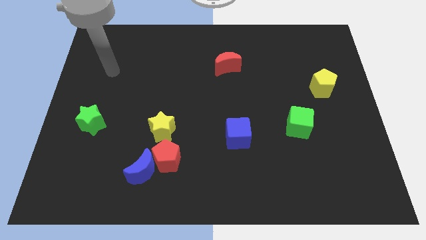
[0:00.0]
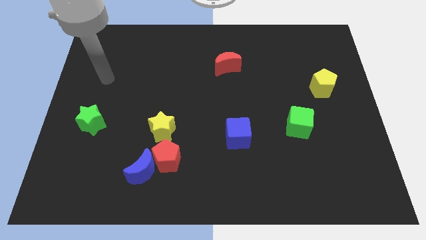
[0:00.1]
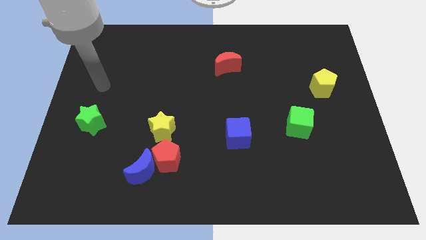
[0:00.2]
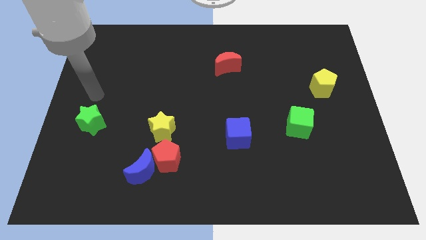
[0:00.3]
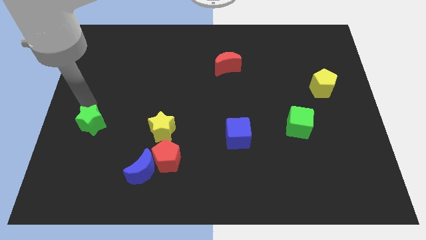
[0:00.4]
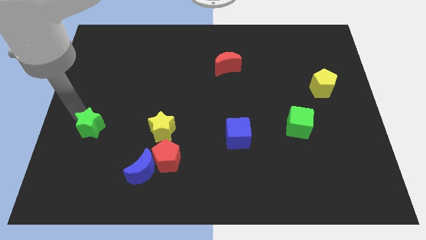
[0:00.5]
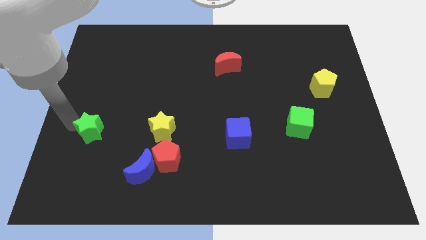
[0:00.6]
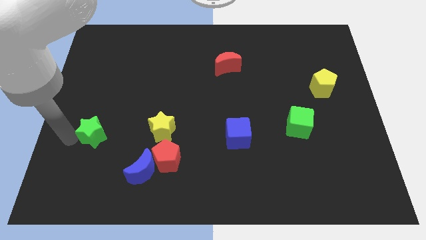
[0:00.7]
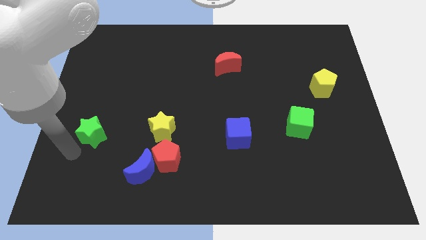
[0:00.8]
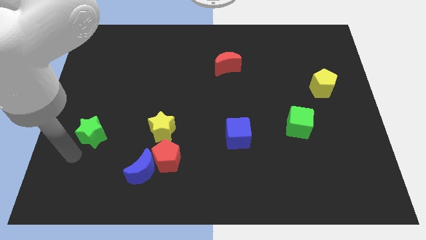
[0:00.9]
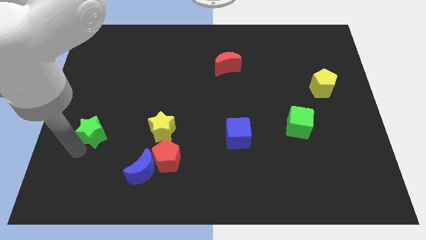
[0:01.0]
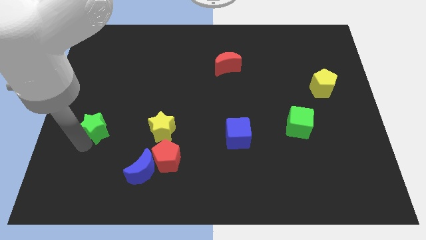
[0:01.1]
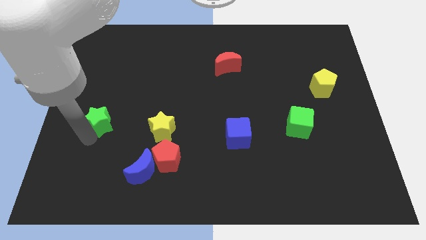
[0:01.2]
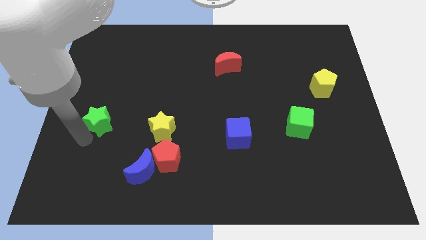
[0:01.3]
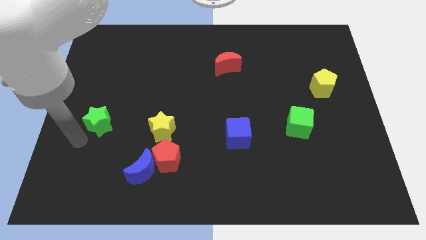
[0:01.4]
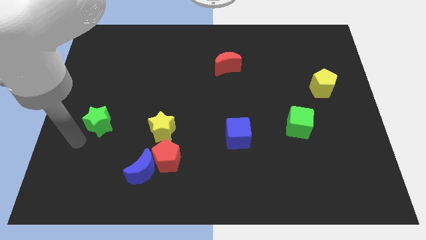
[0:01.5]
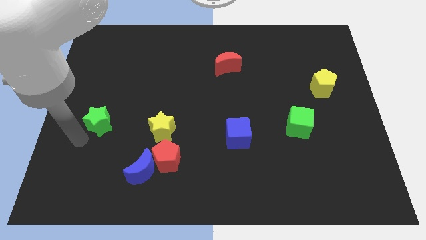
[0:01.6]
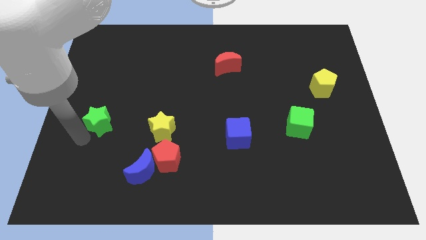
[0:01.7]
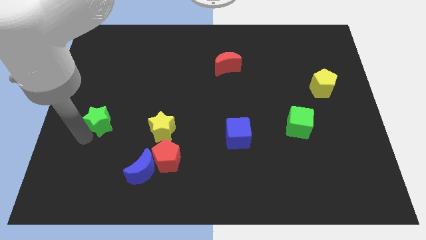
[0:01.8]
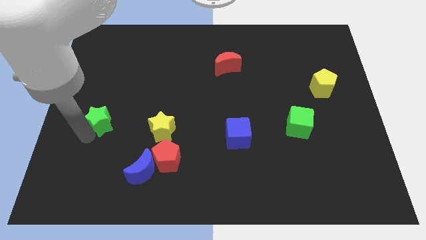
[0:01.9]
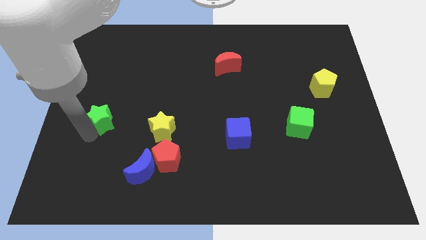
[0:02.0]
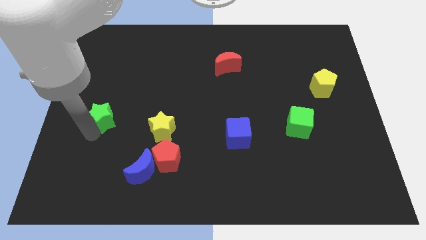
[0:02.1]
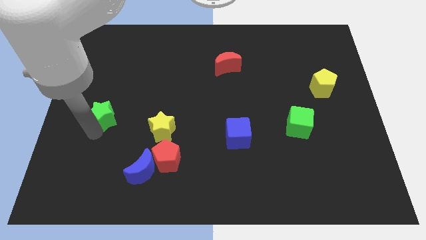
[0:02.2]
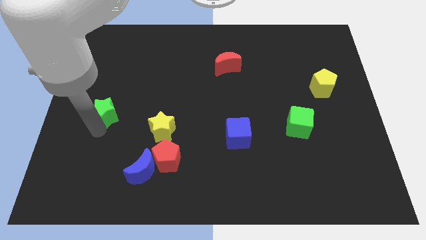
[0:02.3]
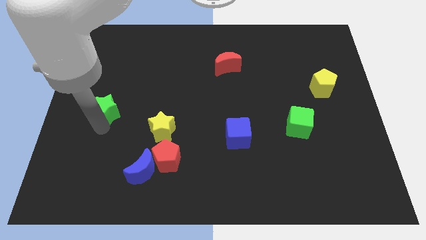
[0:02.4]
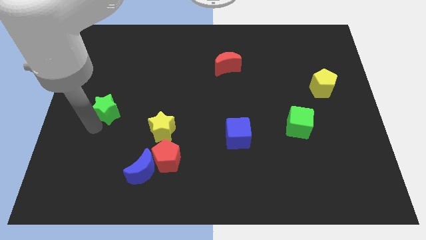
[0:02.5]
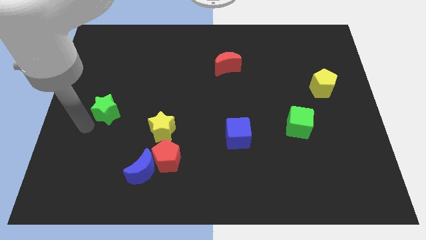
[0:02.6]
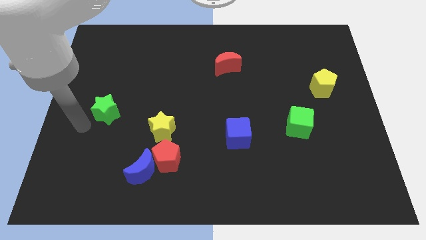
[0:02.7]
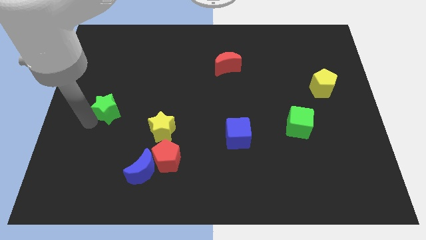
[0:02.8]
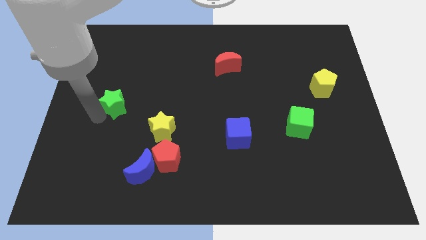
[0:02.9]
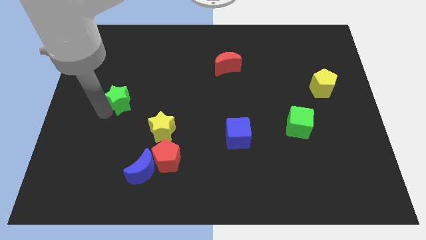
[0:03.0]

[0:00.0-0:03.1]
push the green star somewhat up and right diagonally

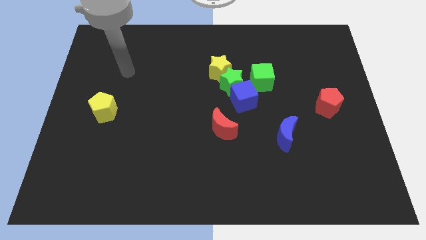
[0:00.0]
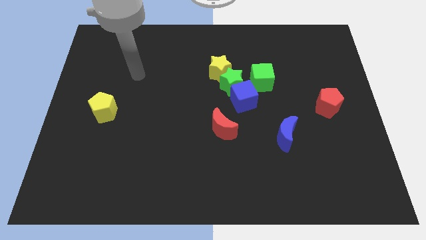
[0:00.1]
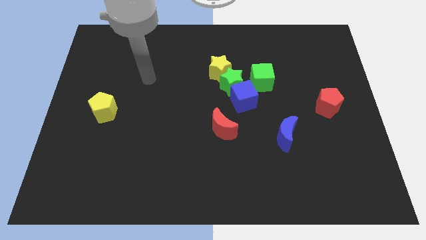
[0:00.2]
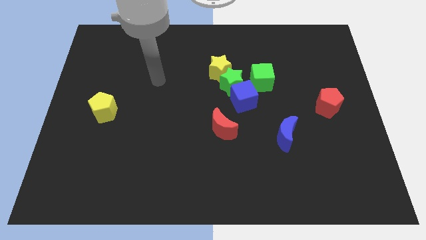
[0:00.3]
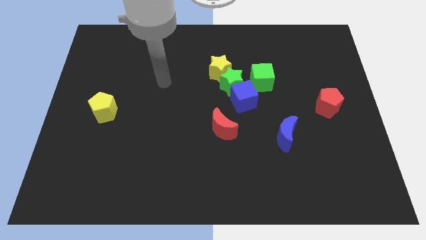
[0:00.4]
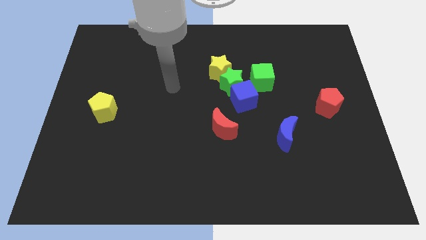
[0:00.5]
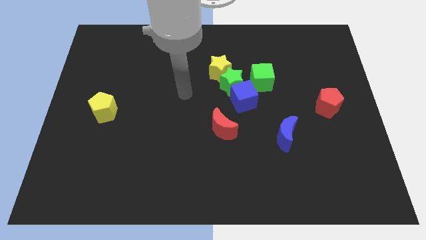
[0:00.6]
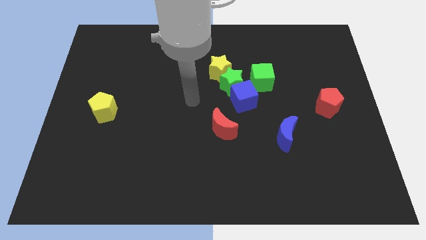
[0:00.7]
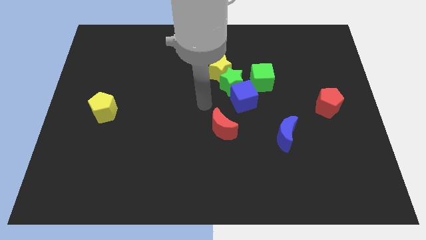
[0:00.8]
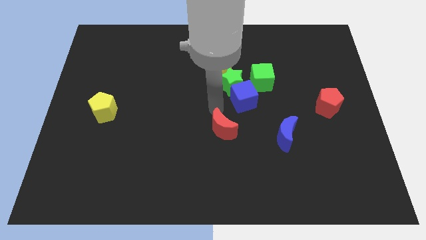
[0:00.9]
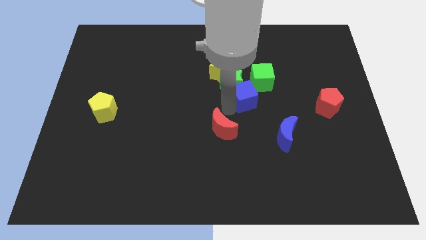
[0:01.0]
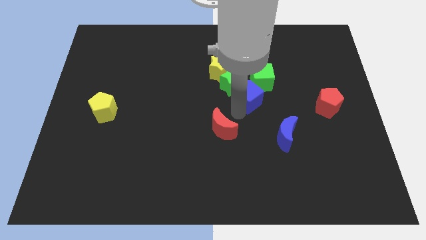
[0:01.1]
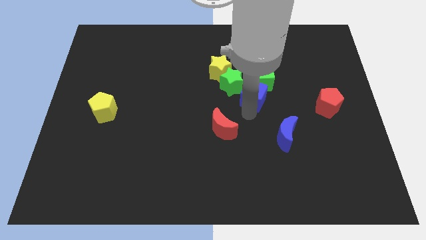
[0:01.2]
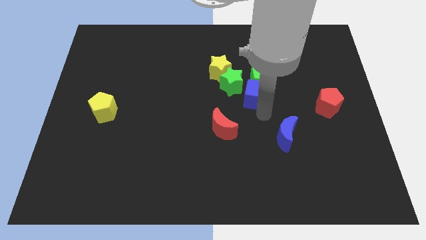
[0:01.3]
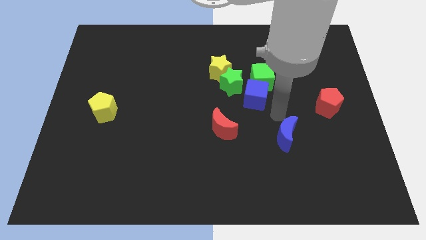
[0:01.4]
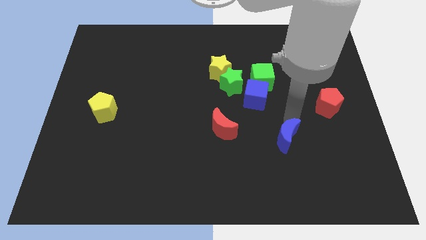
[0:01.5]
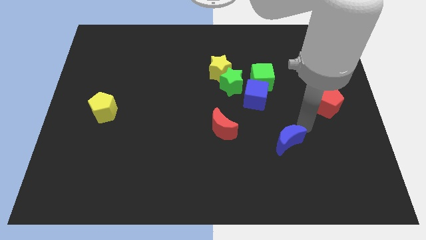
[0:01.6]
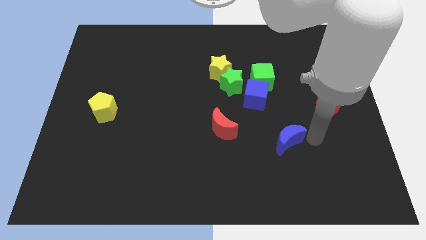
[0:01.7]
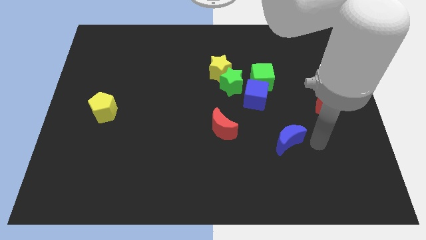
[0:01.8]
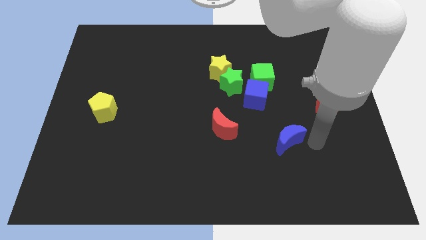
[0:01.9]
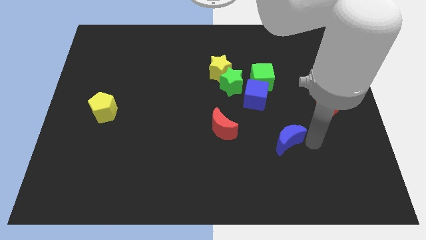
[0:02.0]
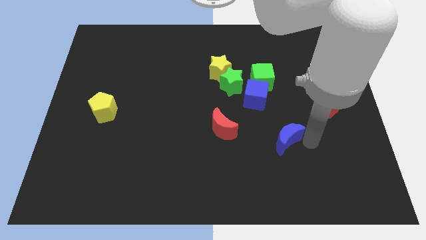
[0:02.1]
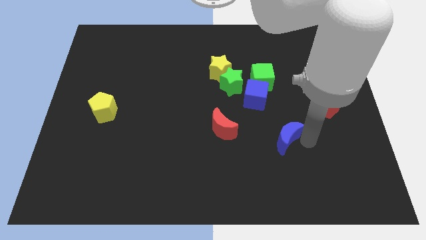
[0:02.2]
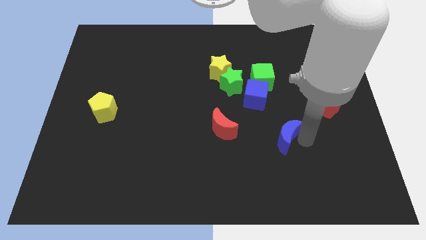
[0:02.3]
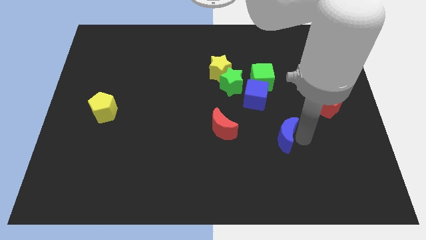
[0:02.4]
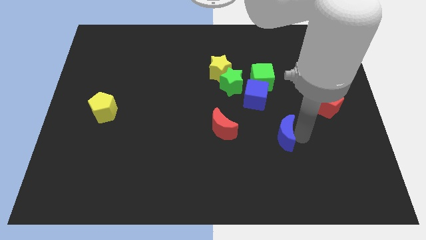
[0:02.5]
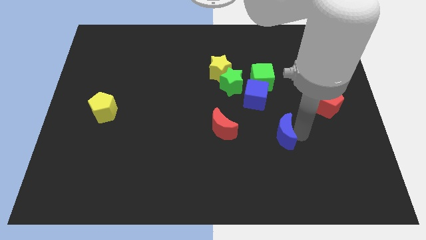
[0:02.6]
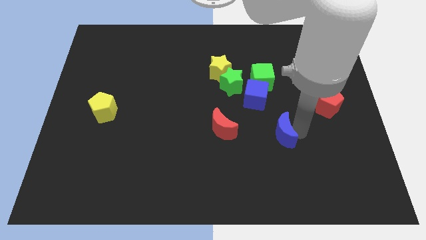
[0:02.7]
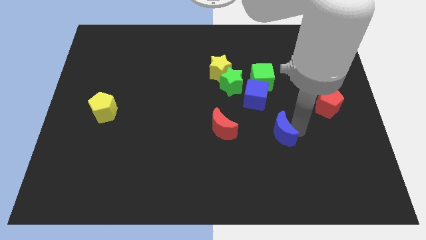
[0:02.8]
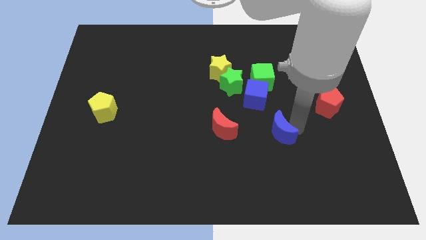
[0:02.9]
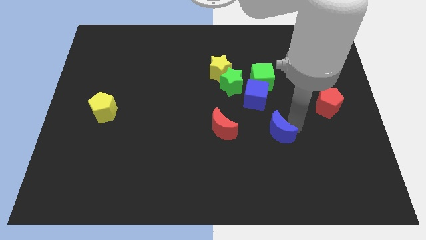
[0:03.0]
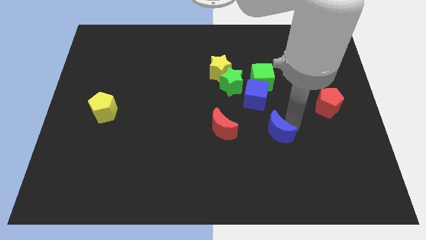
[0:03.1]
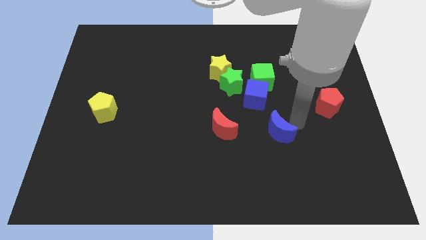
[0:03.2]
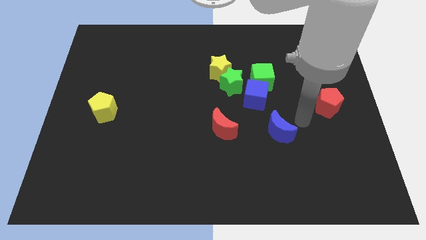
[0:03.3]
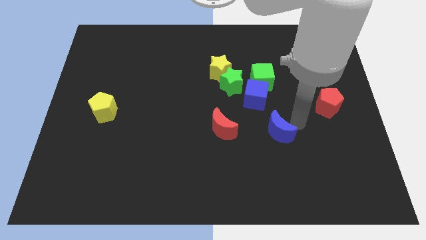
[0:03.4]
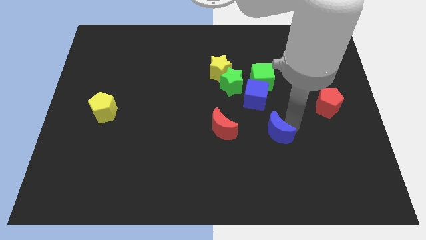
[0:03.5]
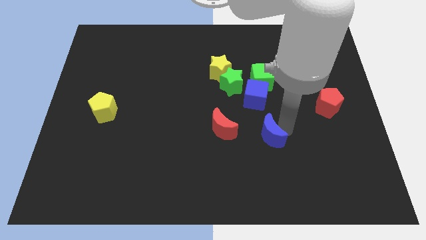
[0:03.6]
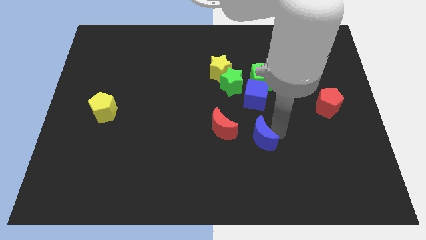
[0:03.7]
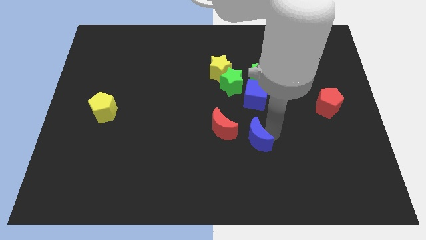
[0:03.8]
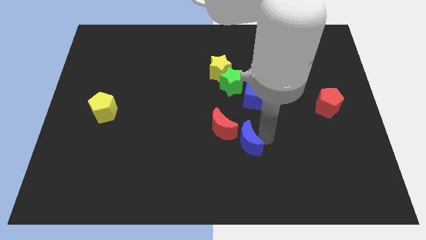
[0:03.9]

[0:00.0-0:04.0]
slide the blue moon somewhat to the left

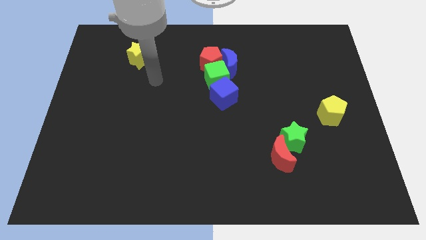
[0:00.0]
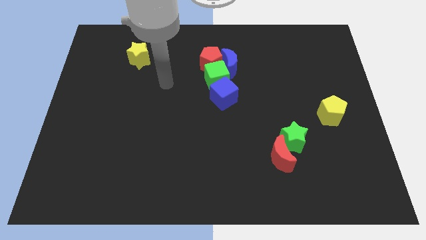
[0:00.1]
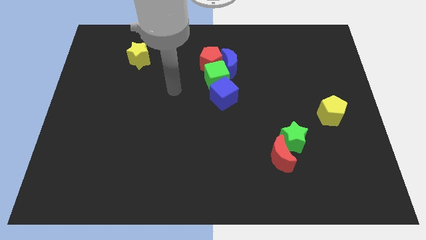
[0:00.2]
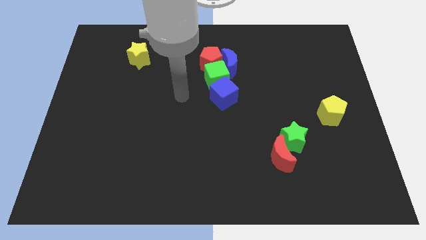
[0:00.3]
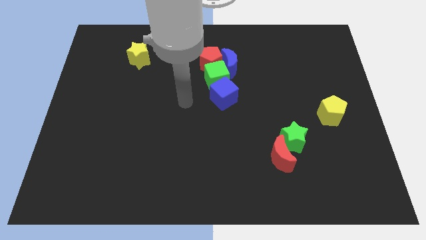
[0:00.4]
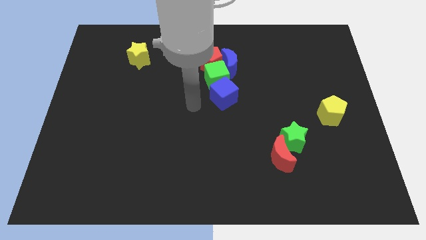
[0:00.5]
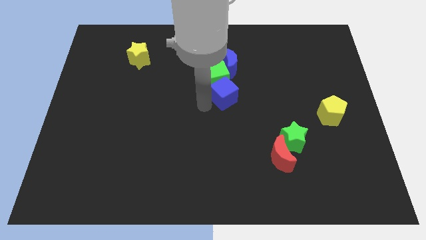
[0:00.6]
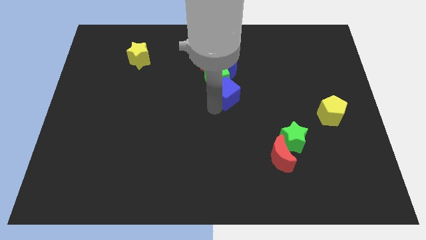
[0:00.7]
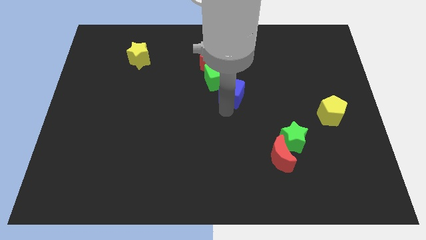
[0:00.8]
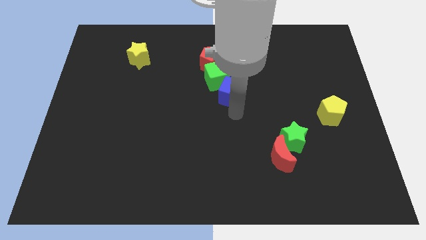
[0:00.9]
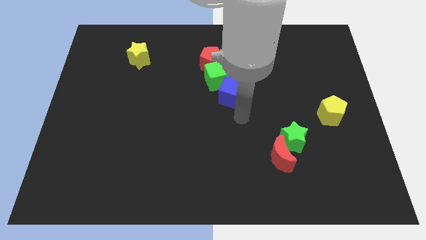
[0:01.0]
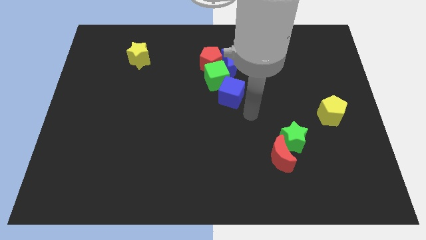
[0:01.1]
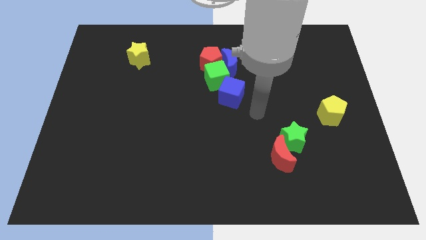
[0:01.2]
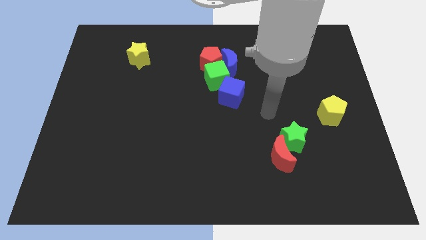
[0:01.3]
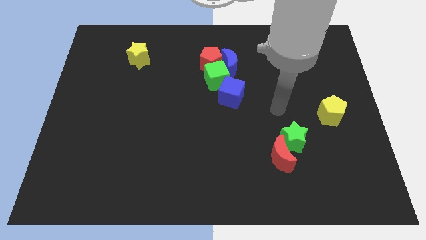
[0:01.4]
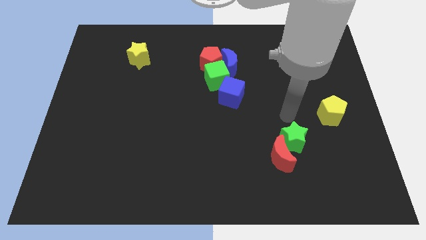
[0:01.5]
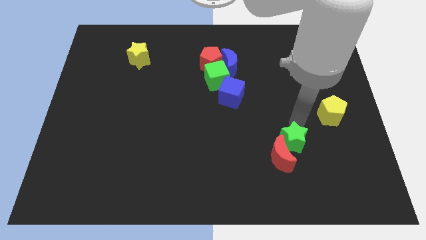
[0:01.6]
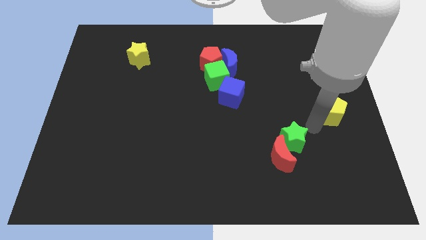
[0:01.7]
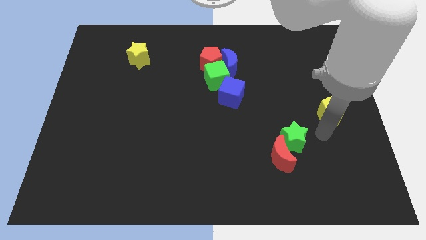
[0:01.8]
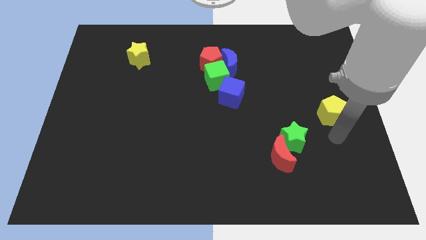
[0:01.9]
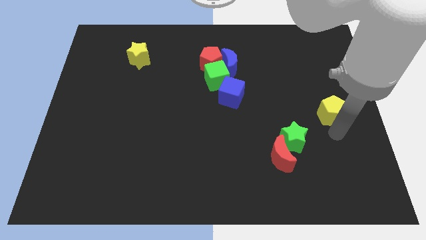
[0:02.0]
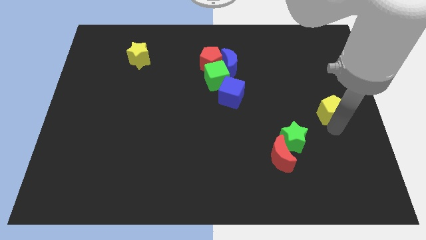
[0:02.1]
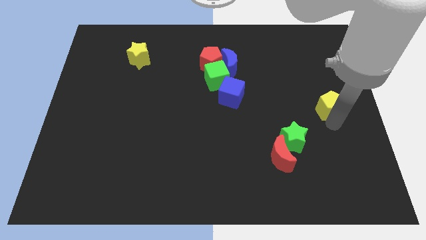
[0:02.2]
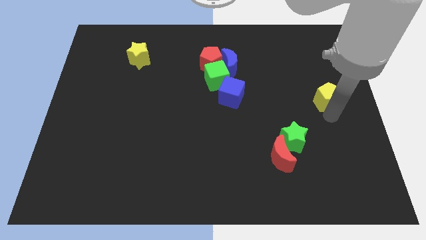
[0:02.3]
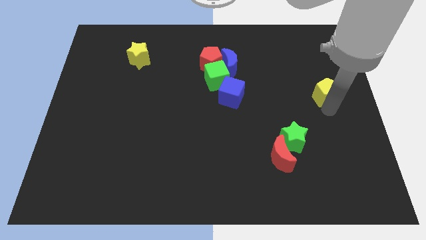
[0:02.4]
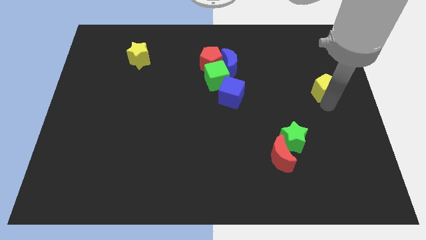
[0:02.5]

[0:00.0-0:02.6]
move the yellow pentagon a bit up
